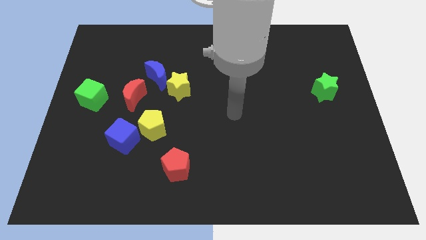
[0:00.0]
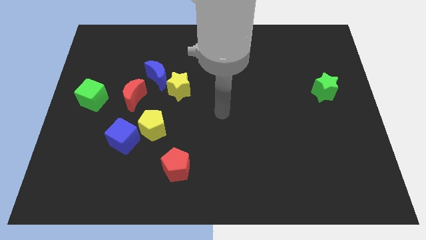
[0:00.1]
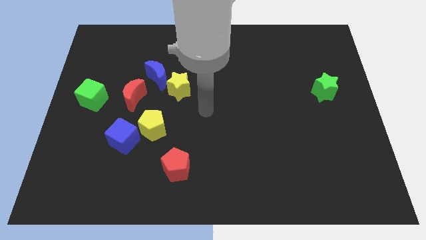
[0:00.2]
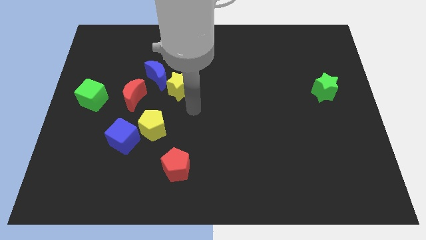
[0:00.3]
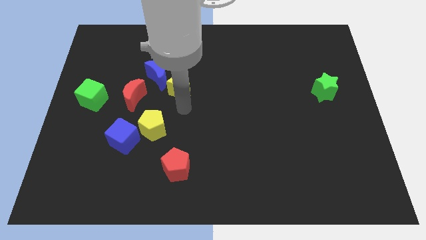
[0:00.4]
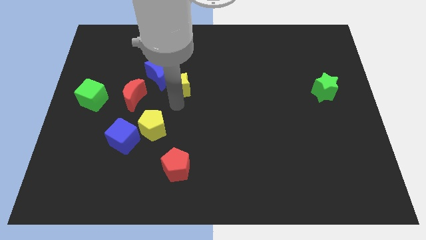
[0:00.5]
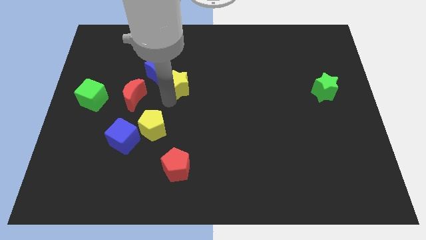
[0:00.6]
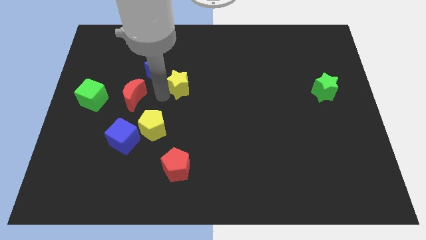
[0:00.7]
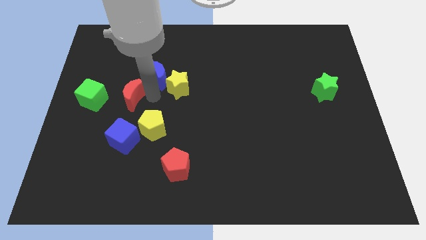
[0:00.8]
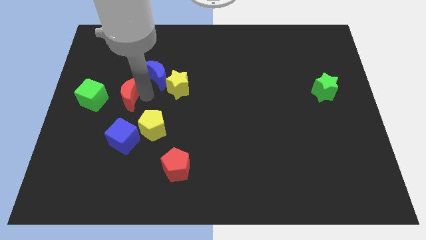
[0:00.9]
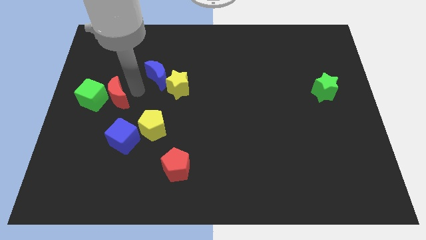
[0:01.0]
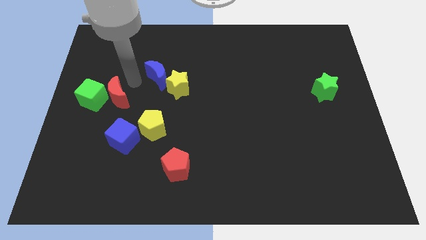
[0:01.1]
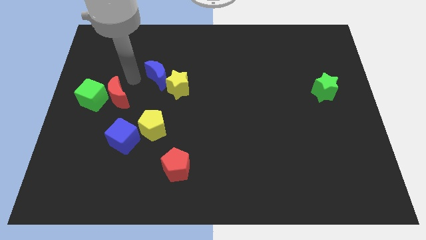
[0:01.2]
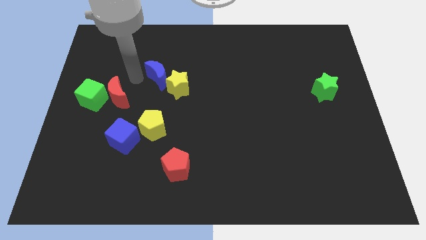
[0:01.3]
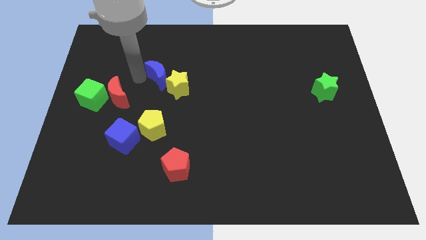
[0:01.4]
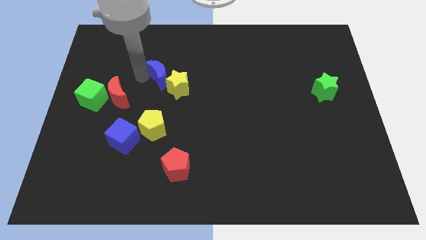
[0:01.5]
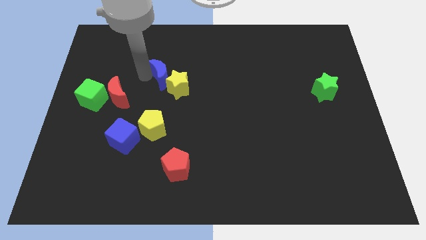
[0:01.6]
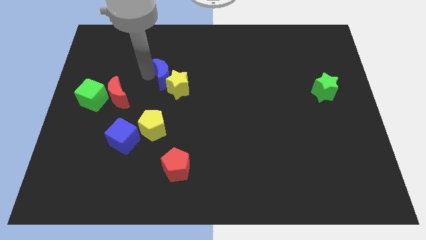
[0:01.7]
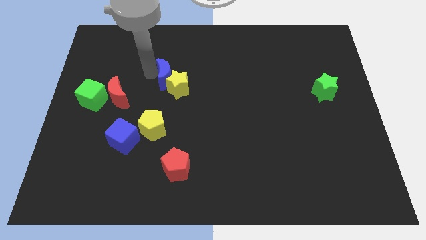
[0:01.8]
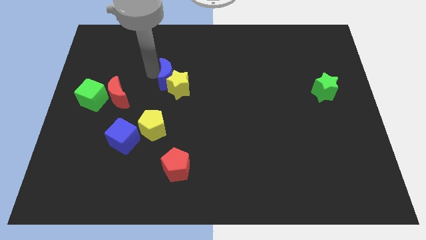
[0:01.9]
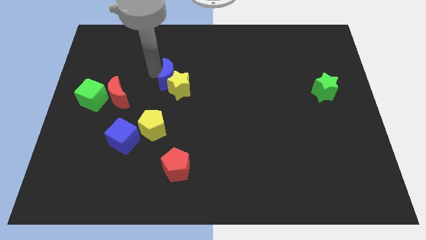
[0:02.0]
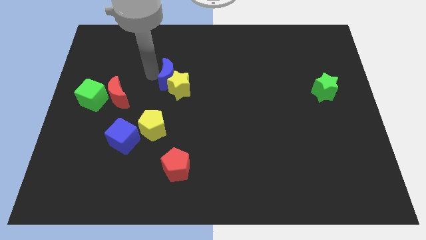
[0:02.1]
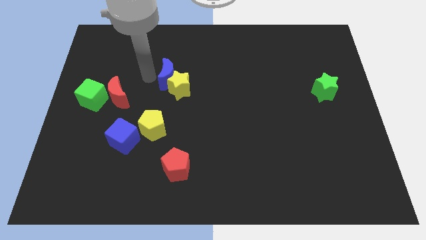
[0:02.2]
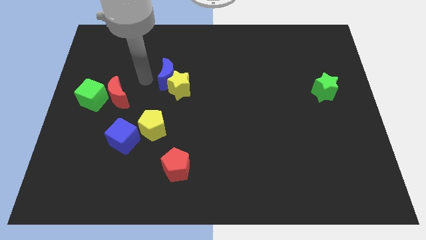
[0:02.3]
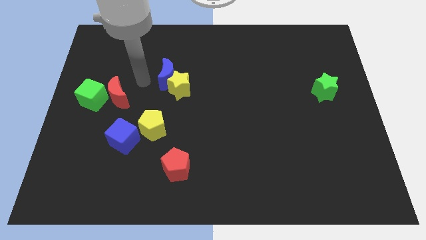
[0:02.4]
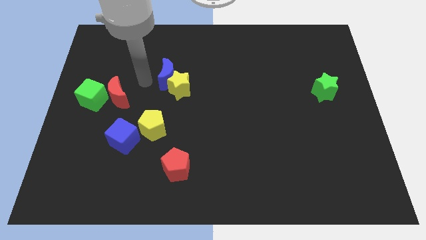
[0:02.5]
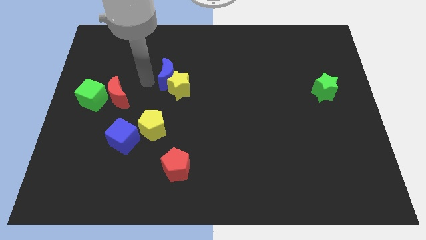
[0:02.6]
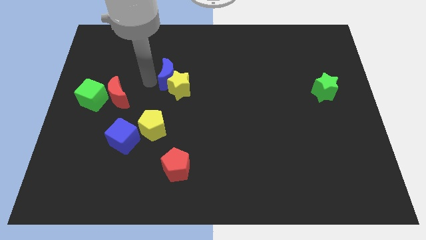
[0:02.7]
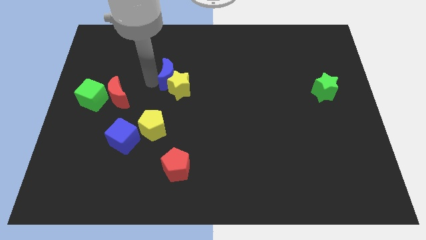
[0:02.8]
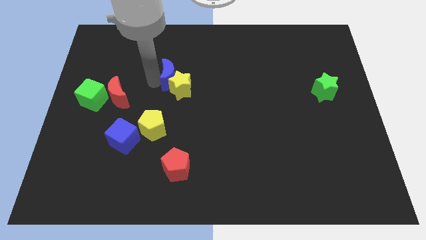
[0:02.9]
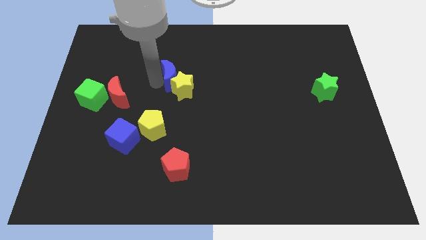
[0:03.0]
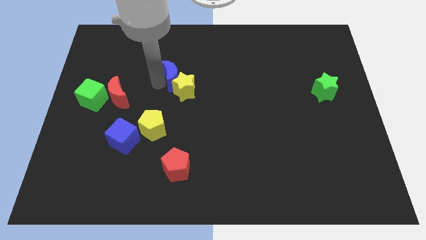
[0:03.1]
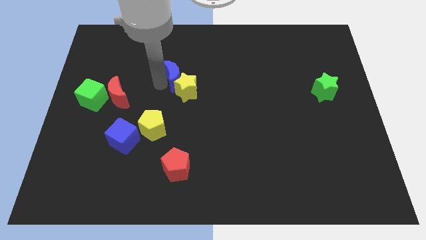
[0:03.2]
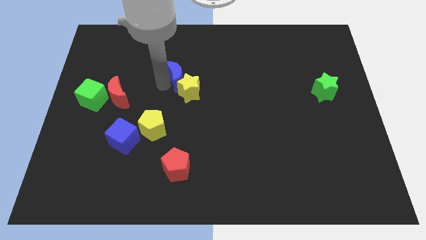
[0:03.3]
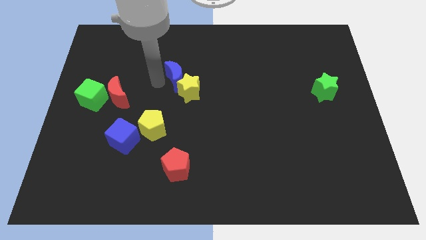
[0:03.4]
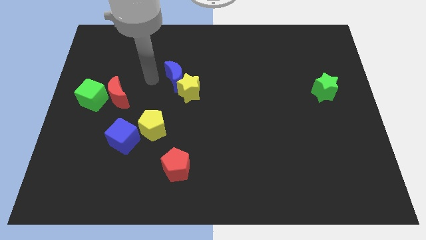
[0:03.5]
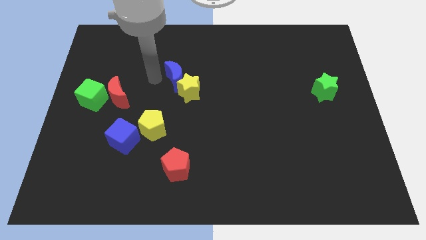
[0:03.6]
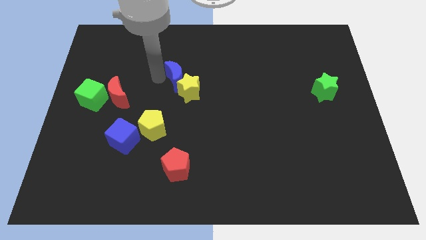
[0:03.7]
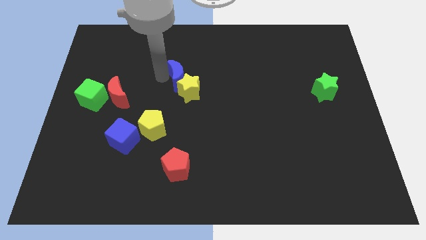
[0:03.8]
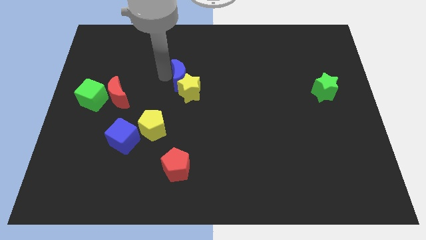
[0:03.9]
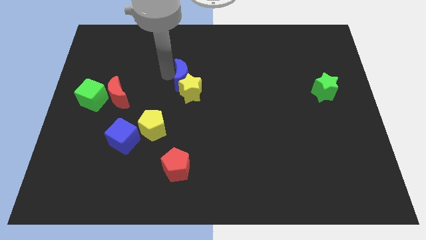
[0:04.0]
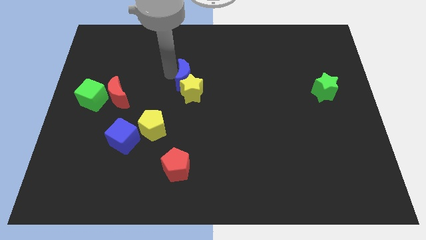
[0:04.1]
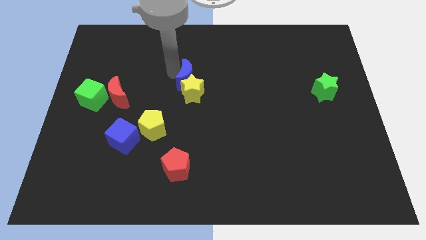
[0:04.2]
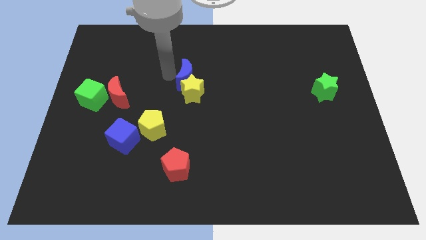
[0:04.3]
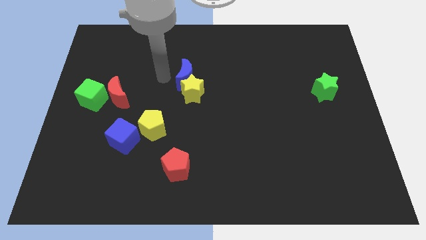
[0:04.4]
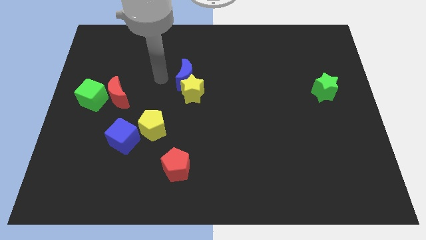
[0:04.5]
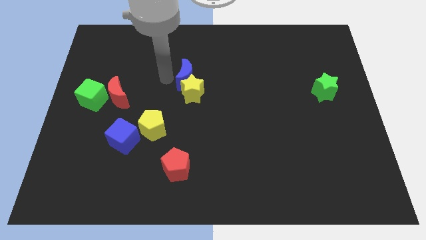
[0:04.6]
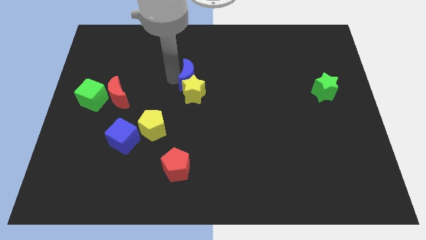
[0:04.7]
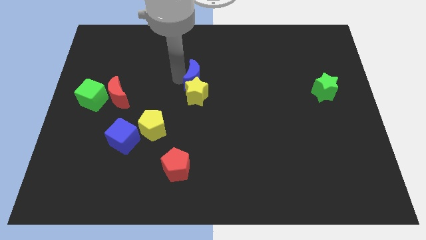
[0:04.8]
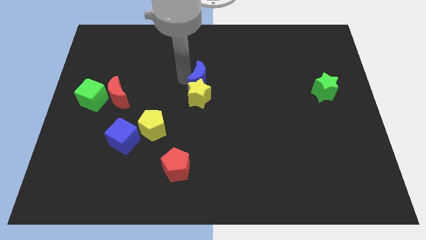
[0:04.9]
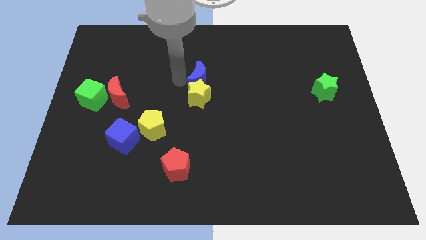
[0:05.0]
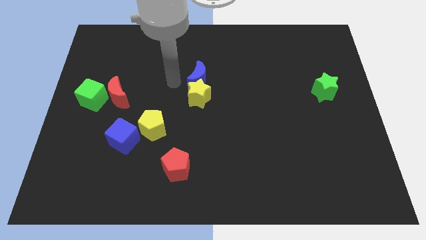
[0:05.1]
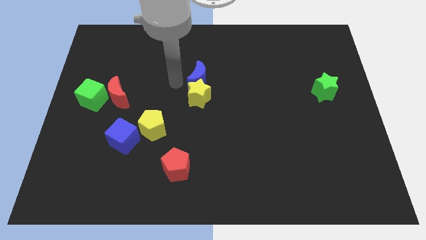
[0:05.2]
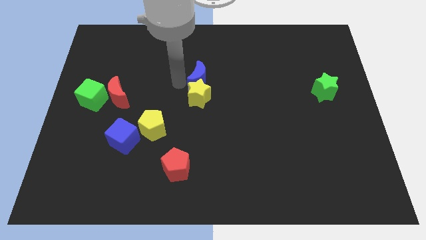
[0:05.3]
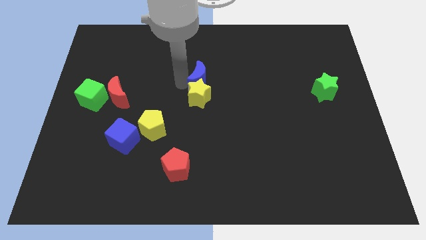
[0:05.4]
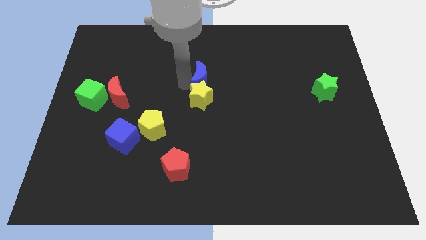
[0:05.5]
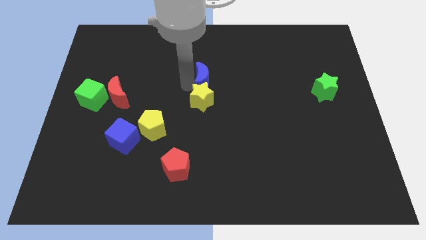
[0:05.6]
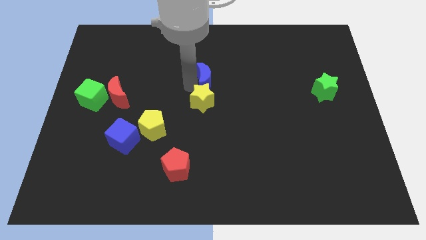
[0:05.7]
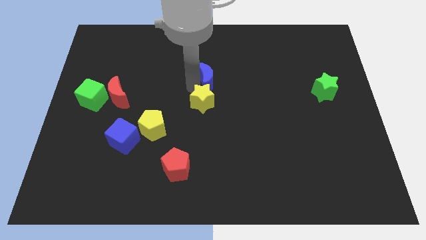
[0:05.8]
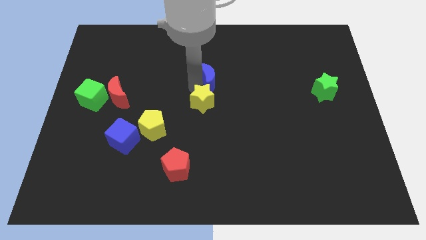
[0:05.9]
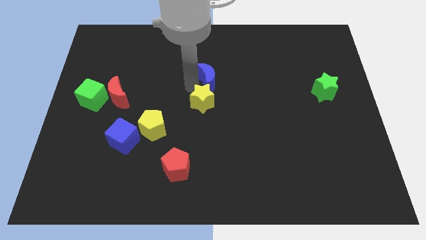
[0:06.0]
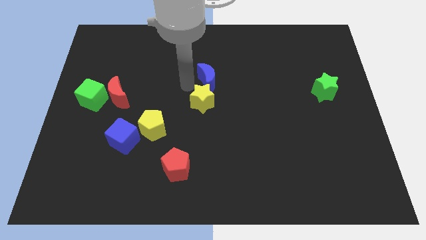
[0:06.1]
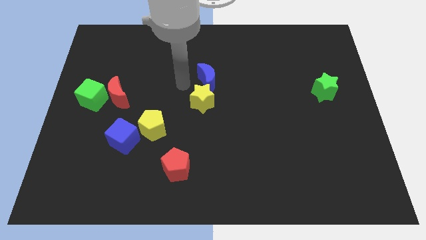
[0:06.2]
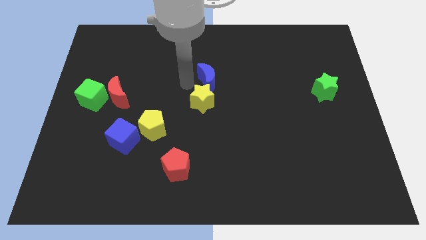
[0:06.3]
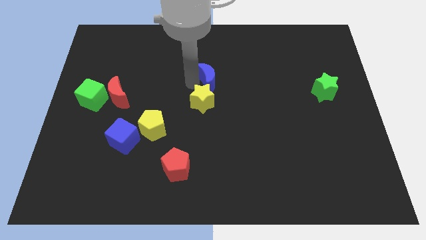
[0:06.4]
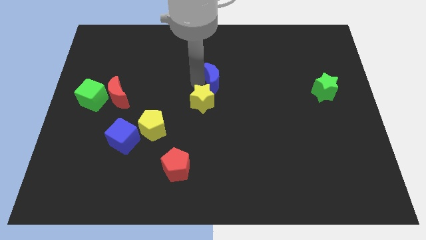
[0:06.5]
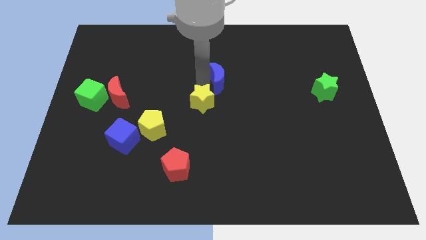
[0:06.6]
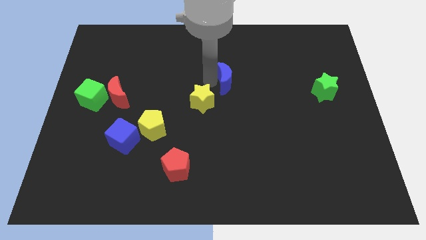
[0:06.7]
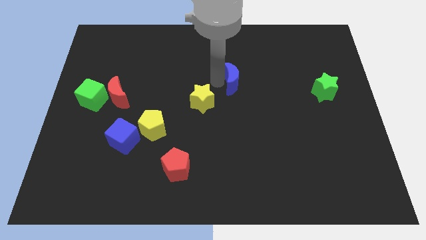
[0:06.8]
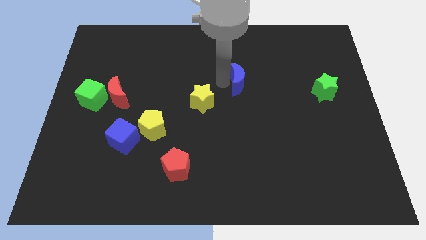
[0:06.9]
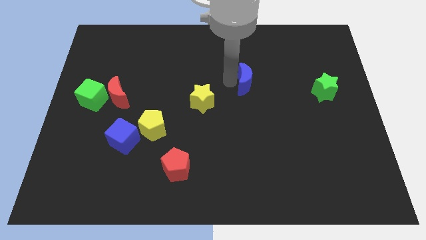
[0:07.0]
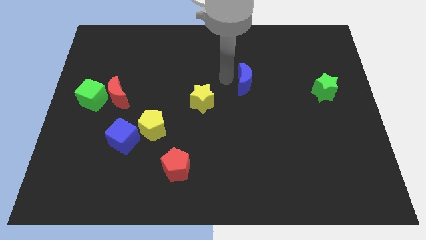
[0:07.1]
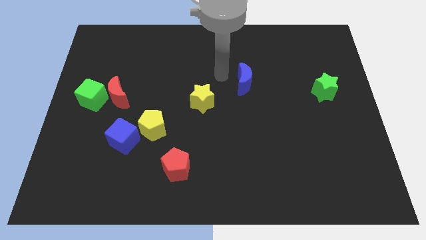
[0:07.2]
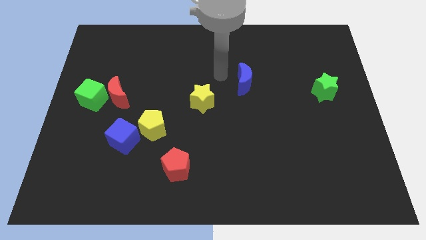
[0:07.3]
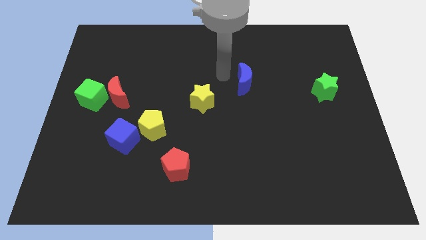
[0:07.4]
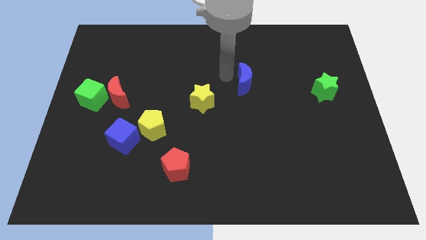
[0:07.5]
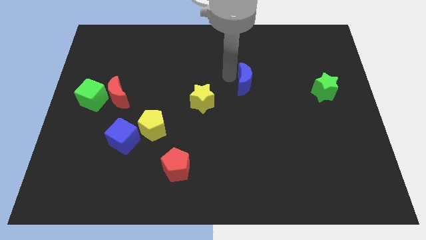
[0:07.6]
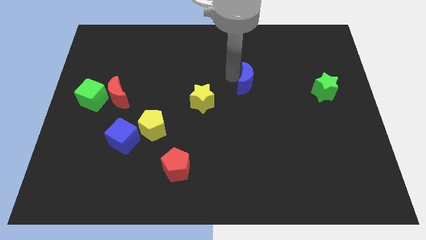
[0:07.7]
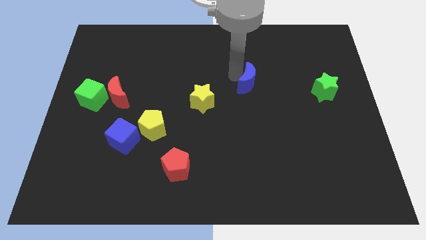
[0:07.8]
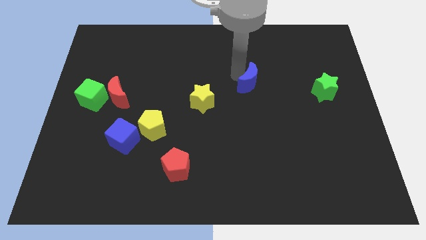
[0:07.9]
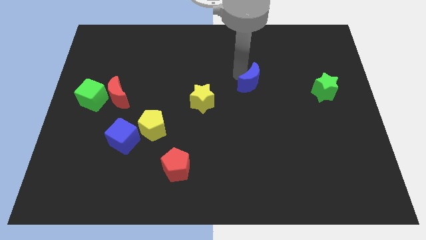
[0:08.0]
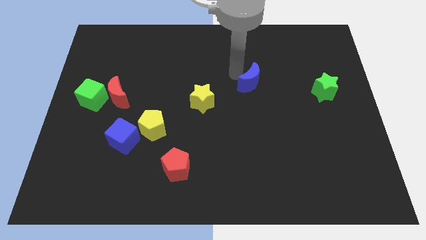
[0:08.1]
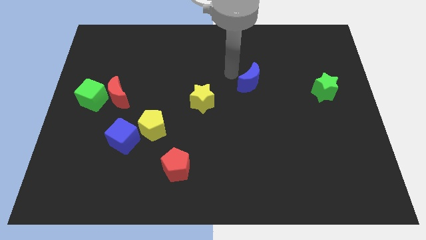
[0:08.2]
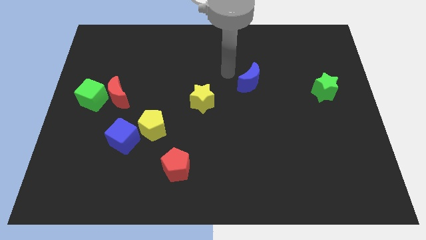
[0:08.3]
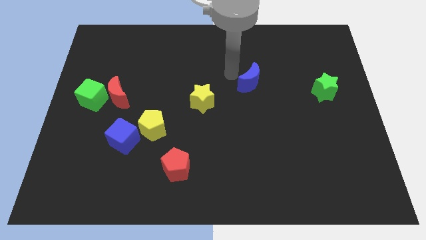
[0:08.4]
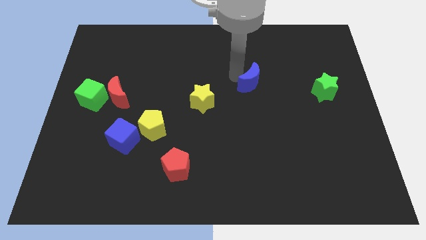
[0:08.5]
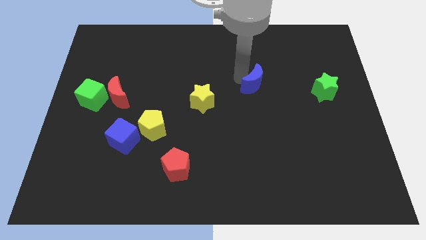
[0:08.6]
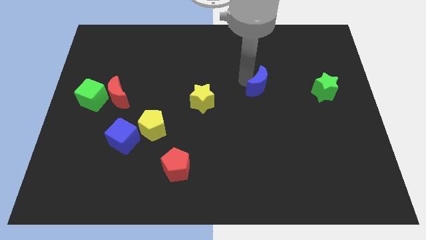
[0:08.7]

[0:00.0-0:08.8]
slide the blue moon left of the green star
